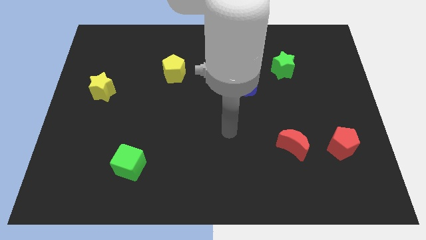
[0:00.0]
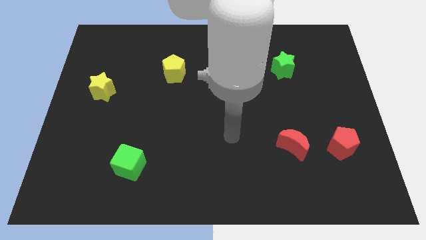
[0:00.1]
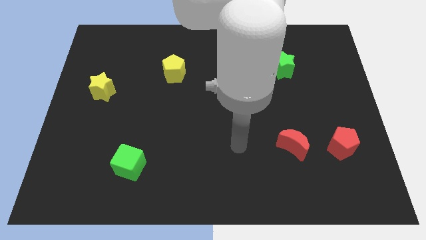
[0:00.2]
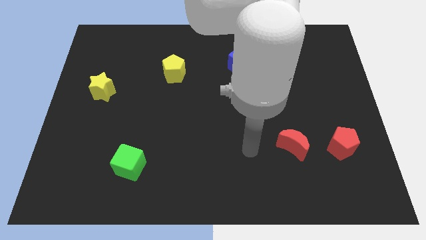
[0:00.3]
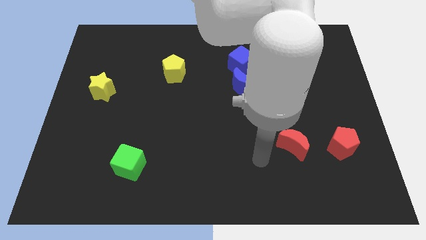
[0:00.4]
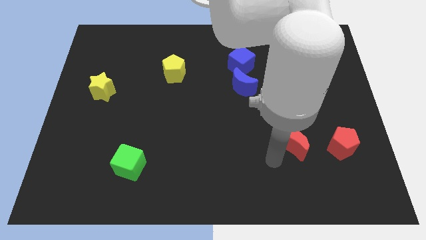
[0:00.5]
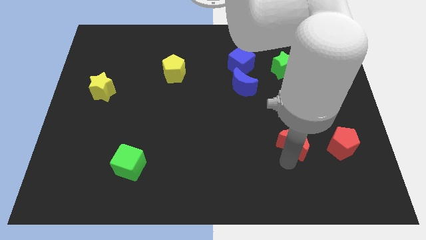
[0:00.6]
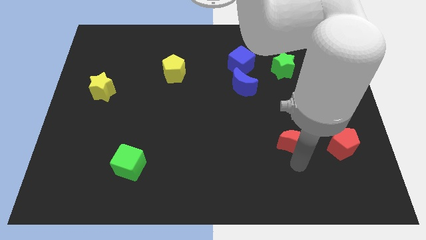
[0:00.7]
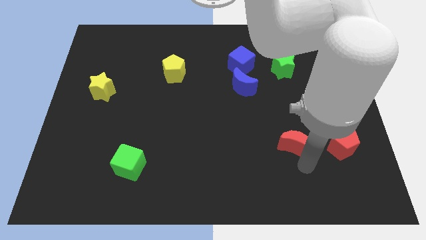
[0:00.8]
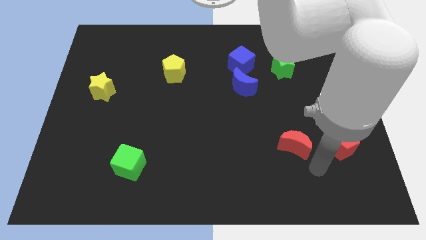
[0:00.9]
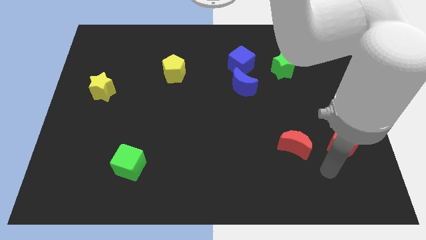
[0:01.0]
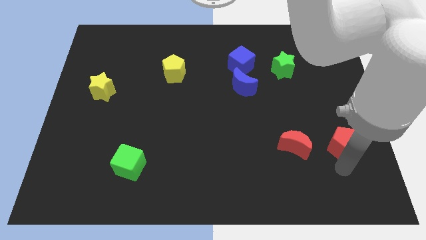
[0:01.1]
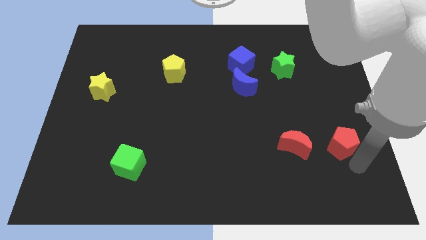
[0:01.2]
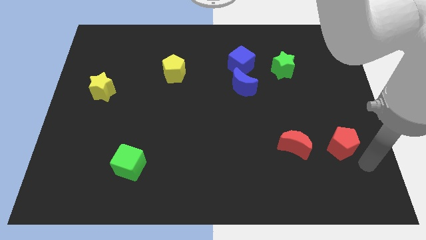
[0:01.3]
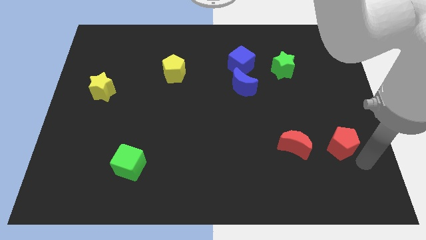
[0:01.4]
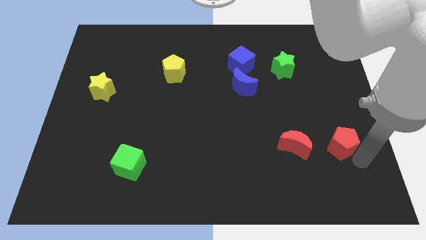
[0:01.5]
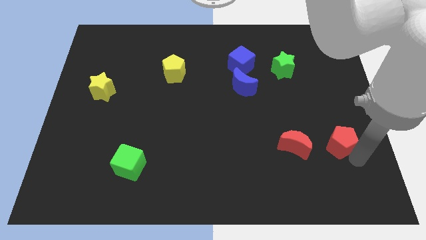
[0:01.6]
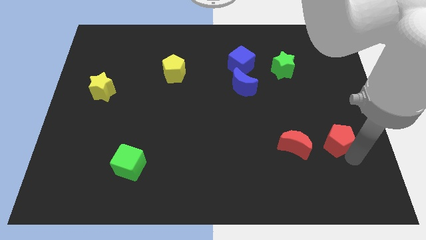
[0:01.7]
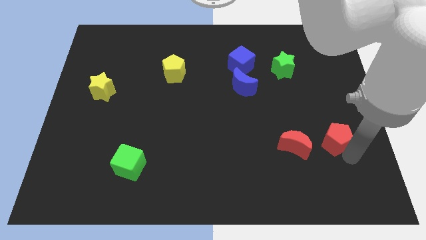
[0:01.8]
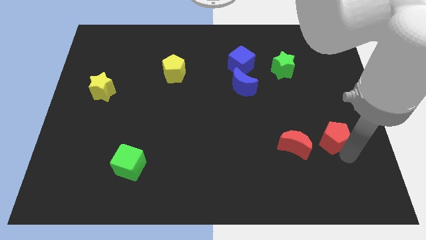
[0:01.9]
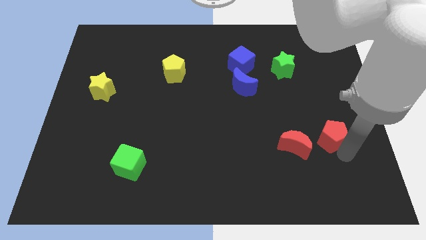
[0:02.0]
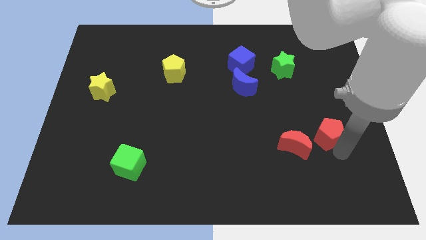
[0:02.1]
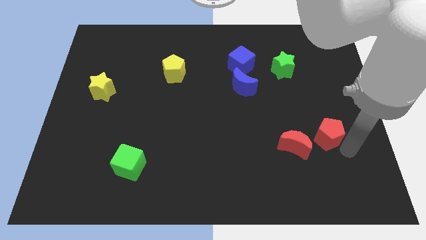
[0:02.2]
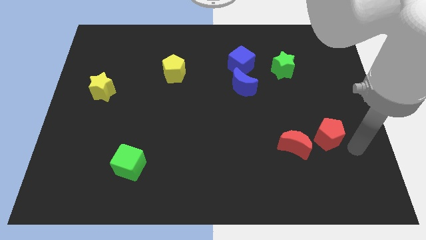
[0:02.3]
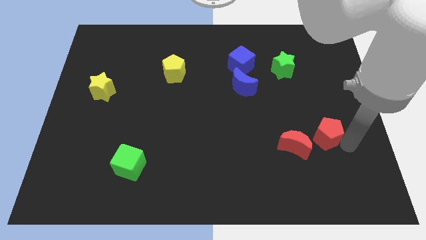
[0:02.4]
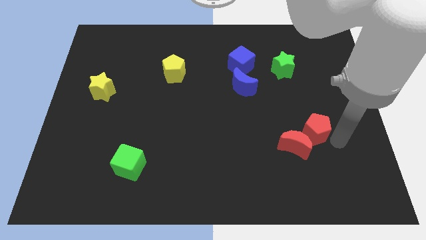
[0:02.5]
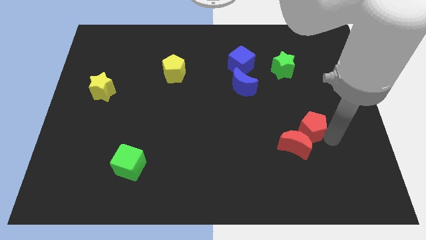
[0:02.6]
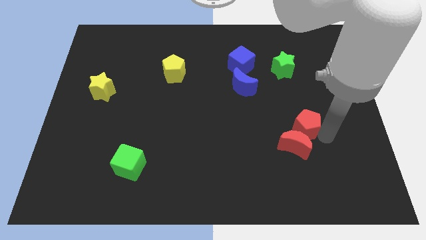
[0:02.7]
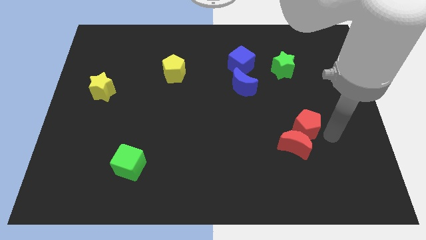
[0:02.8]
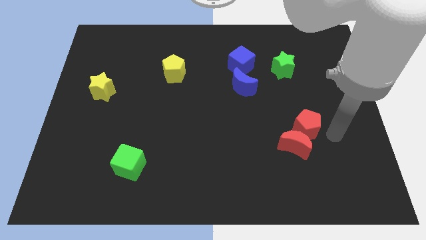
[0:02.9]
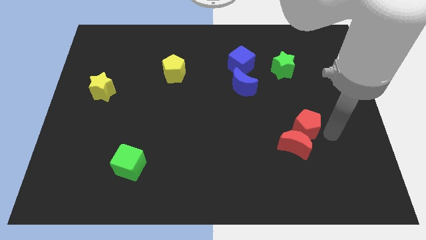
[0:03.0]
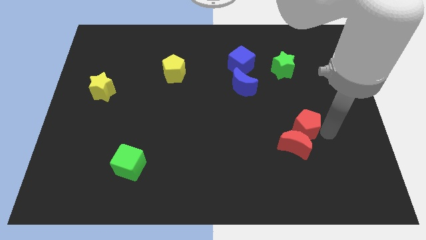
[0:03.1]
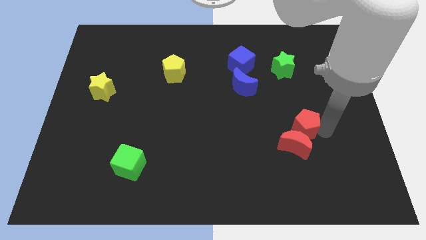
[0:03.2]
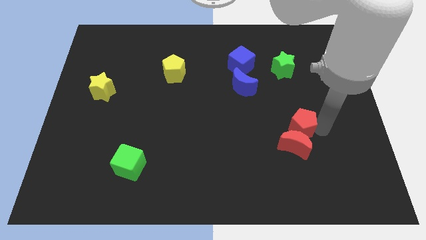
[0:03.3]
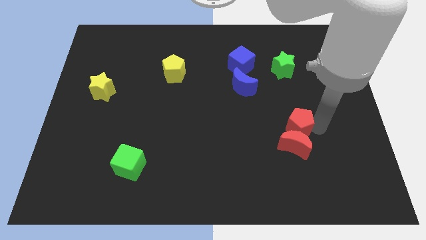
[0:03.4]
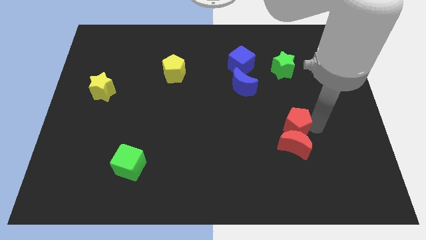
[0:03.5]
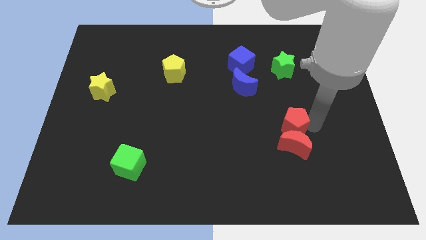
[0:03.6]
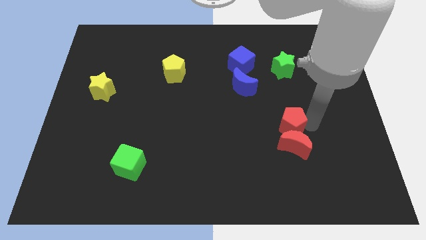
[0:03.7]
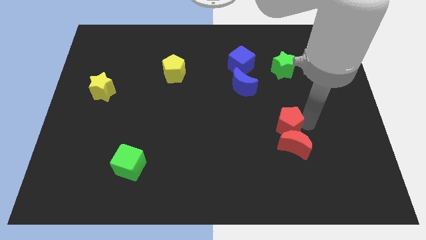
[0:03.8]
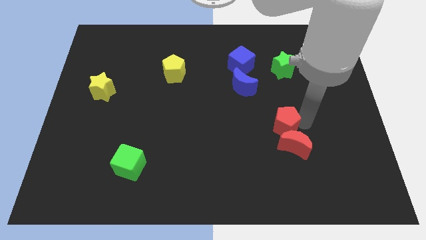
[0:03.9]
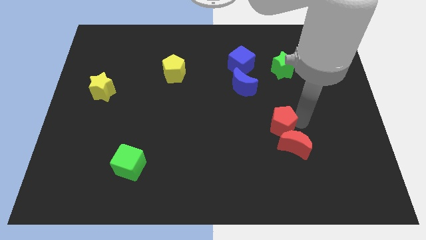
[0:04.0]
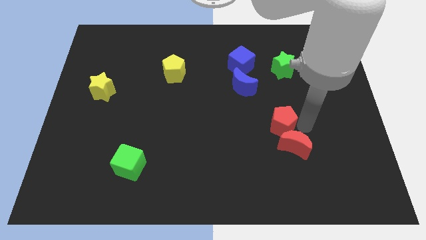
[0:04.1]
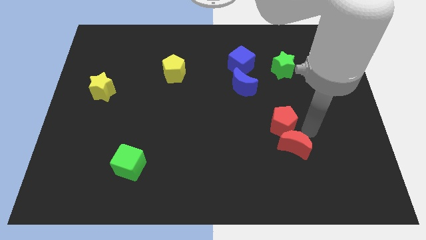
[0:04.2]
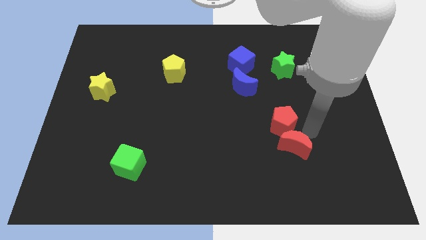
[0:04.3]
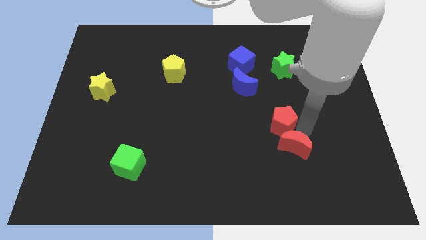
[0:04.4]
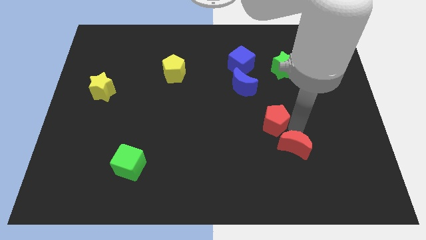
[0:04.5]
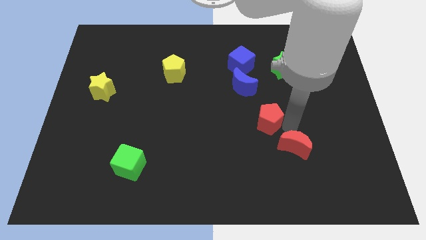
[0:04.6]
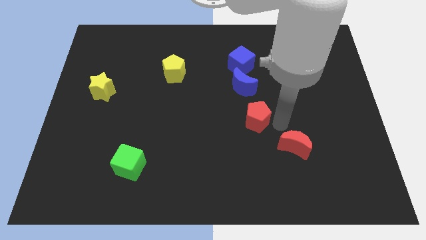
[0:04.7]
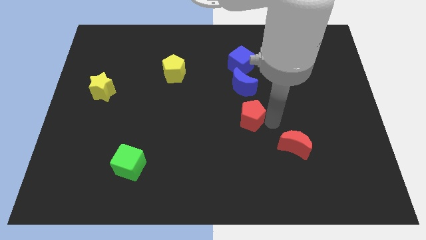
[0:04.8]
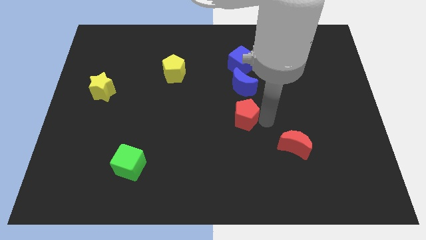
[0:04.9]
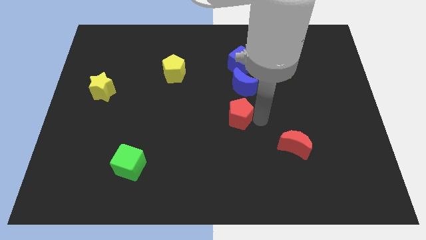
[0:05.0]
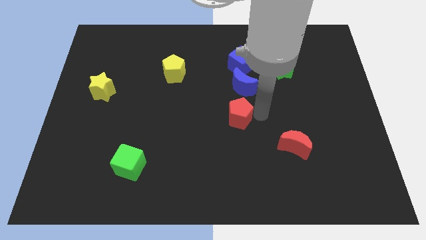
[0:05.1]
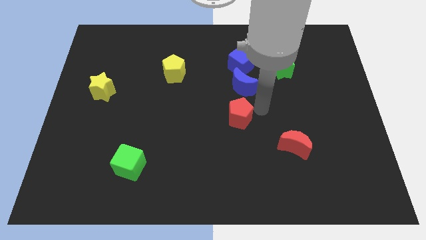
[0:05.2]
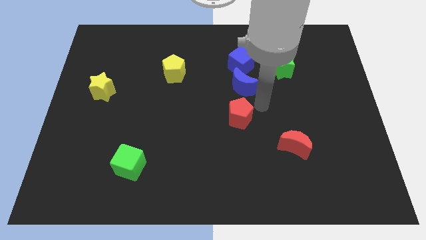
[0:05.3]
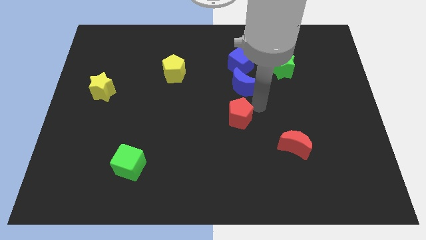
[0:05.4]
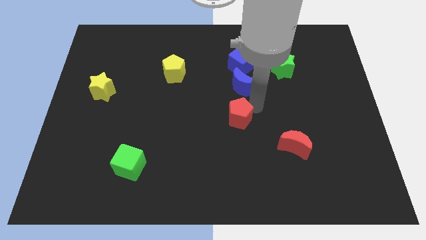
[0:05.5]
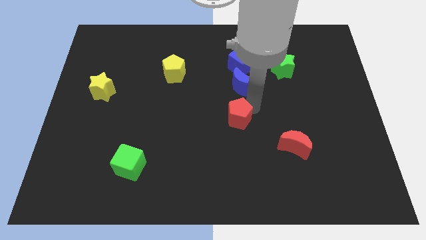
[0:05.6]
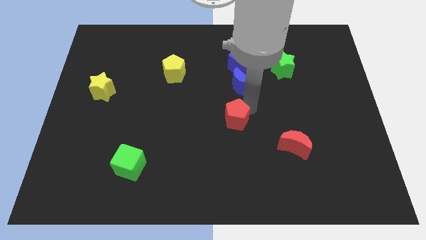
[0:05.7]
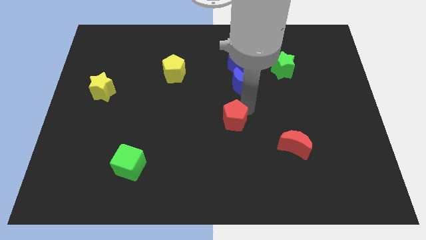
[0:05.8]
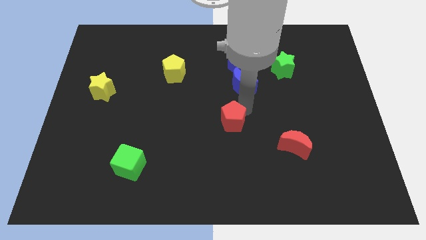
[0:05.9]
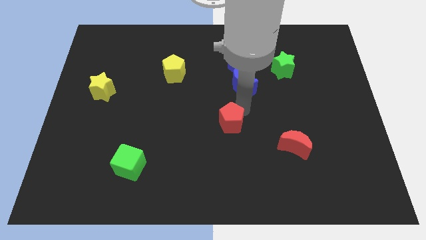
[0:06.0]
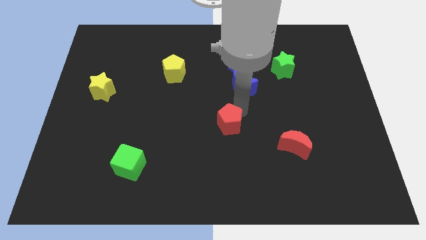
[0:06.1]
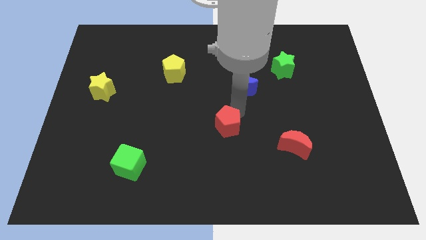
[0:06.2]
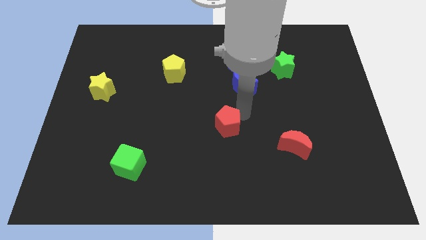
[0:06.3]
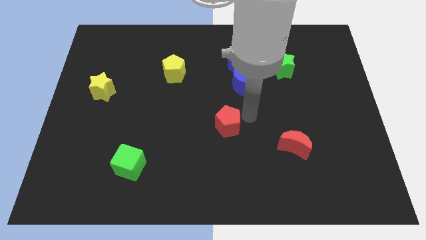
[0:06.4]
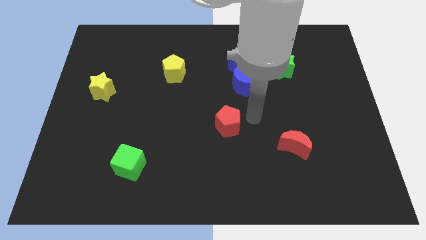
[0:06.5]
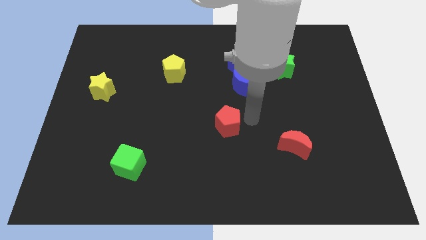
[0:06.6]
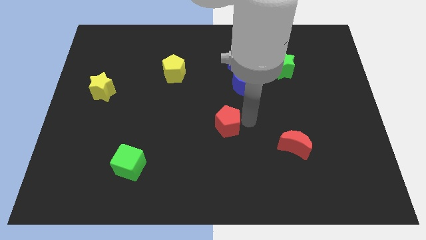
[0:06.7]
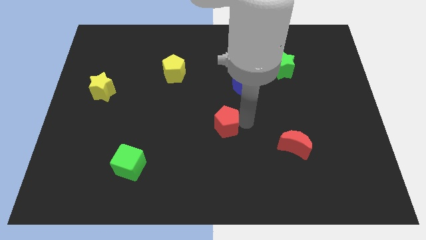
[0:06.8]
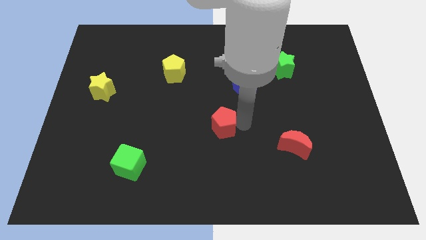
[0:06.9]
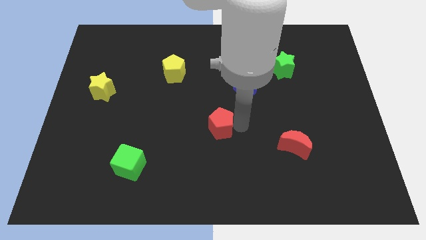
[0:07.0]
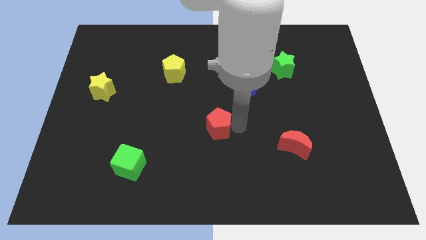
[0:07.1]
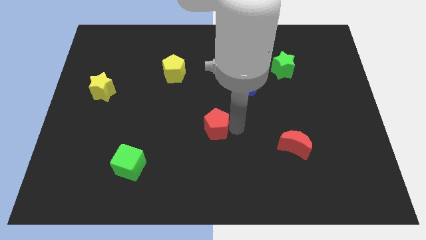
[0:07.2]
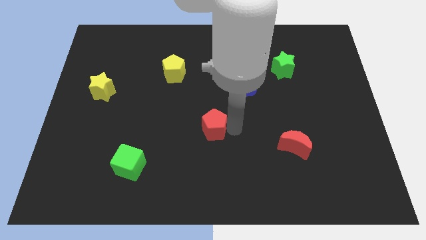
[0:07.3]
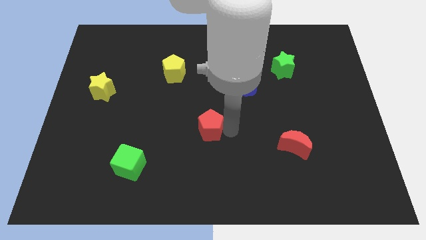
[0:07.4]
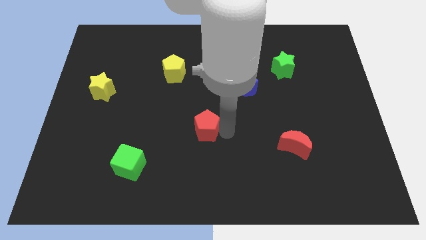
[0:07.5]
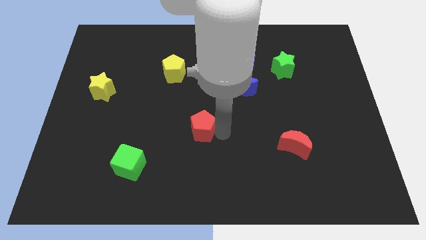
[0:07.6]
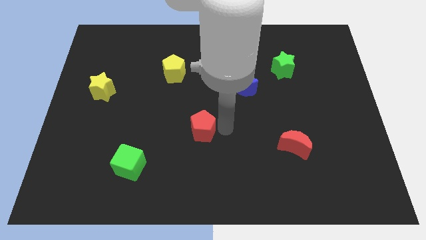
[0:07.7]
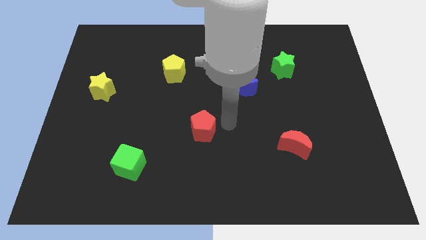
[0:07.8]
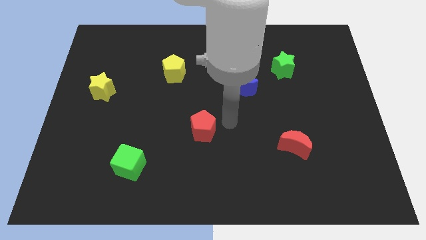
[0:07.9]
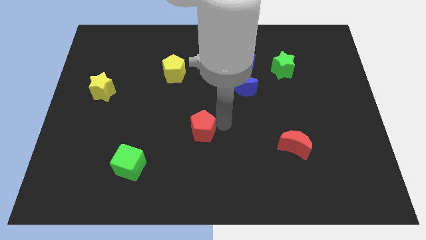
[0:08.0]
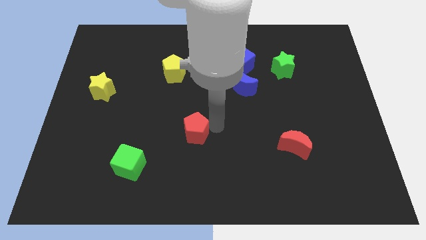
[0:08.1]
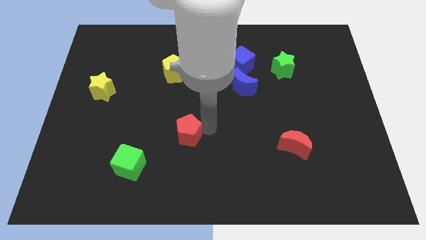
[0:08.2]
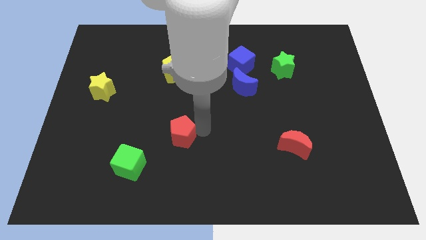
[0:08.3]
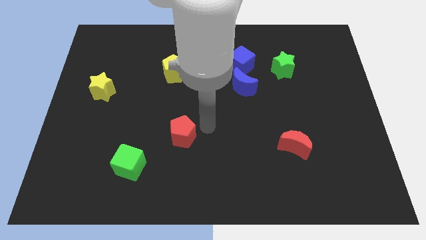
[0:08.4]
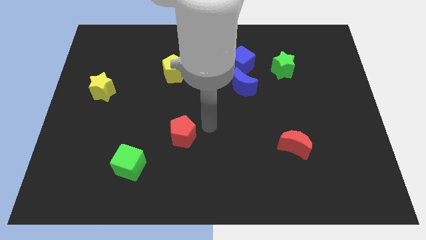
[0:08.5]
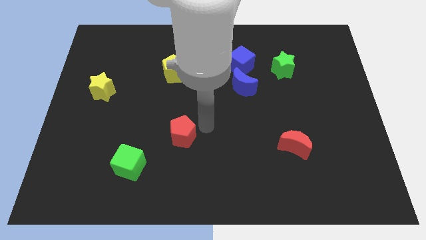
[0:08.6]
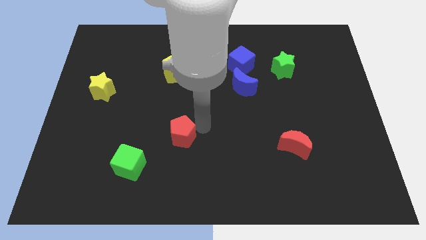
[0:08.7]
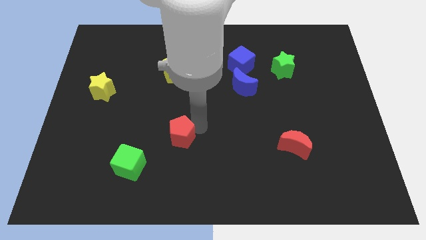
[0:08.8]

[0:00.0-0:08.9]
move the red pentagon to the top right side of the green cube
